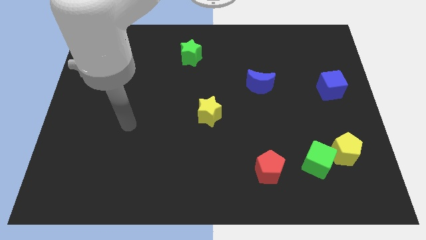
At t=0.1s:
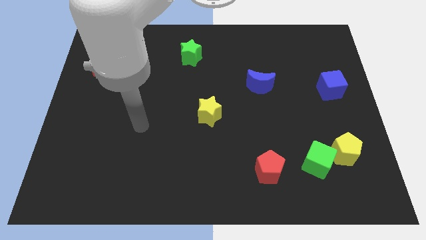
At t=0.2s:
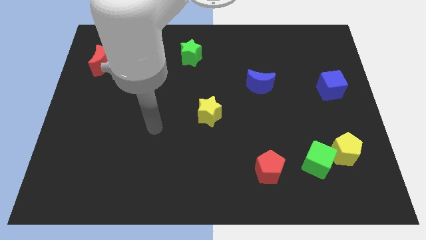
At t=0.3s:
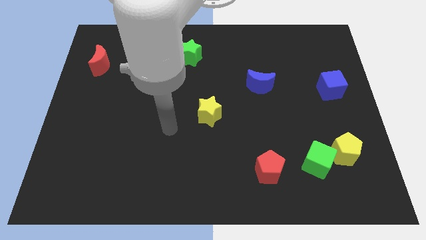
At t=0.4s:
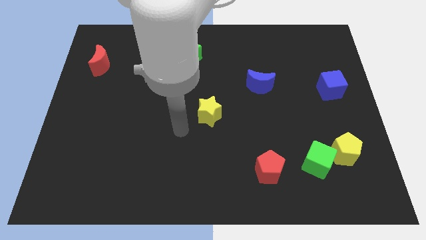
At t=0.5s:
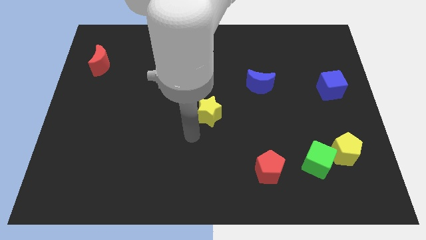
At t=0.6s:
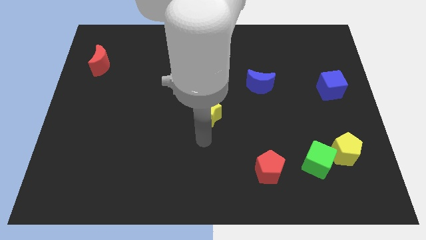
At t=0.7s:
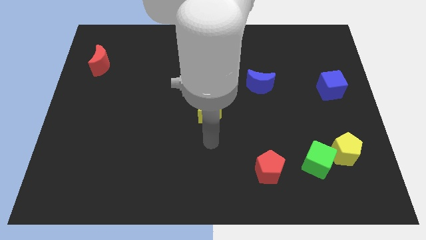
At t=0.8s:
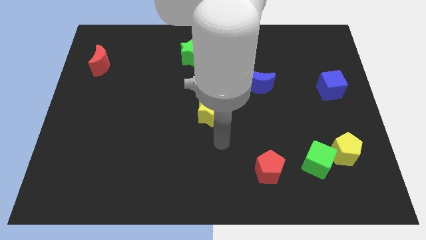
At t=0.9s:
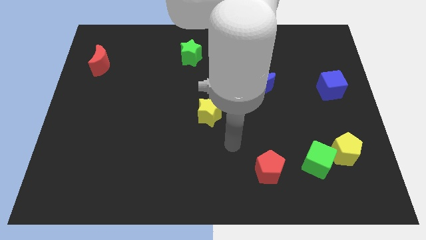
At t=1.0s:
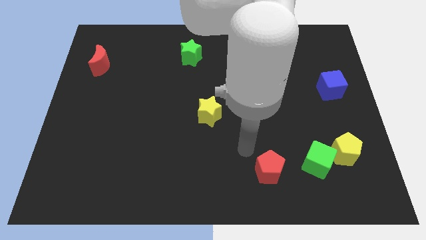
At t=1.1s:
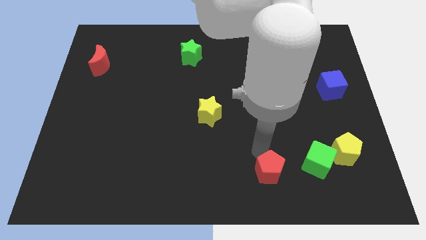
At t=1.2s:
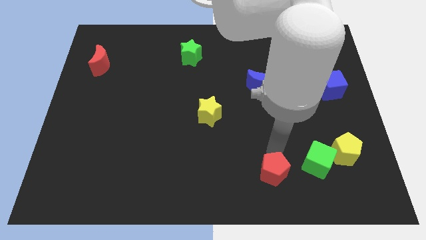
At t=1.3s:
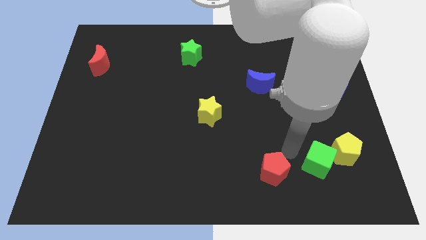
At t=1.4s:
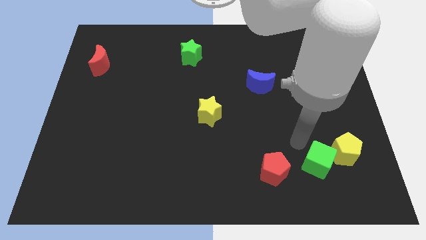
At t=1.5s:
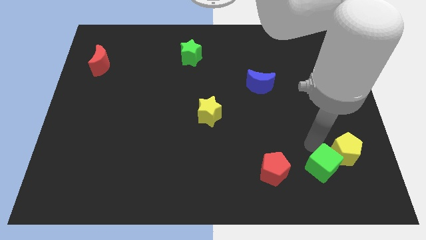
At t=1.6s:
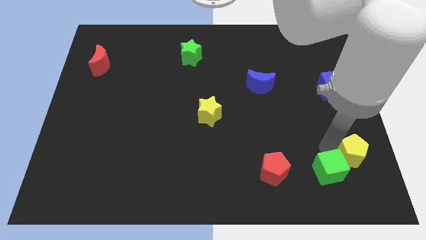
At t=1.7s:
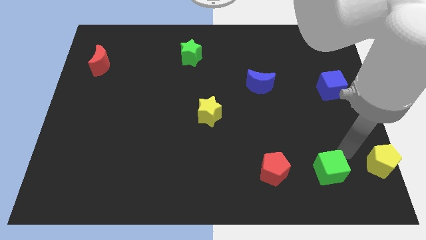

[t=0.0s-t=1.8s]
pull the green cube apart from the yellow pentagon

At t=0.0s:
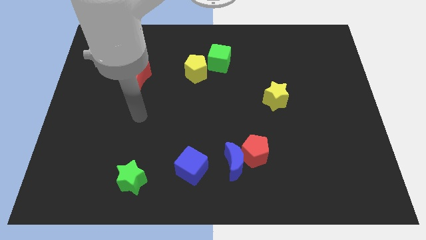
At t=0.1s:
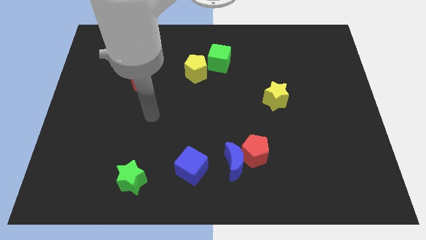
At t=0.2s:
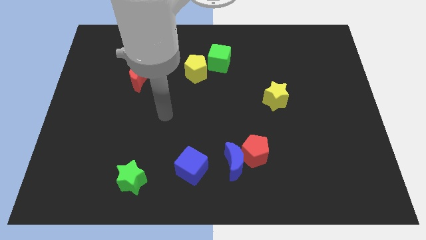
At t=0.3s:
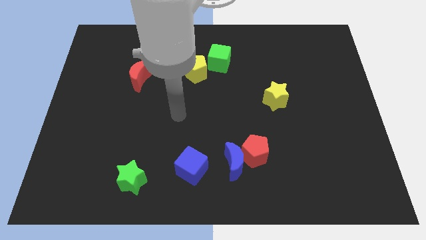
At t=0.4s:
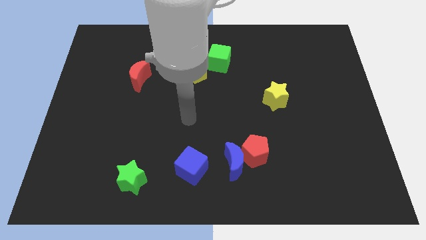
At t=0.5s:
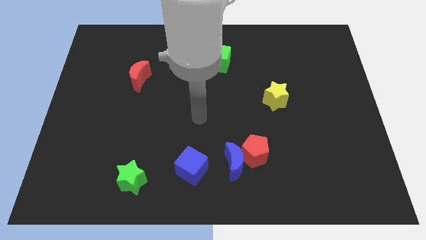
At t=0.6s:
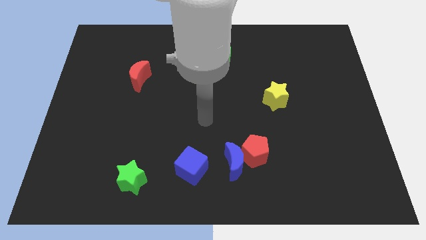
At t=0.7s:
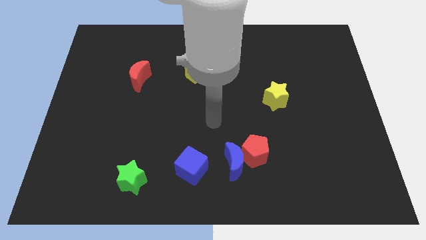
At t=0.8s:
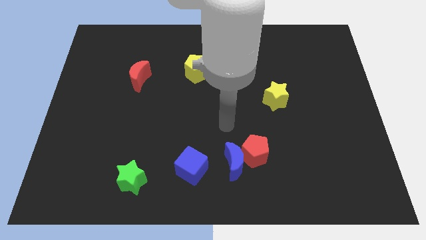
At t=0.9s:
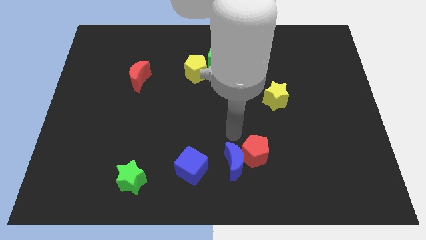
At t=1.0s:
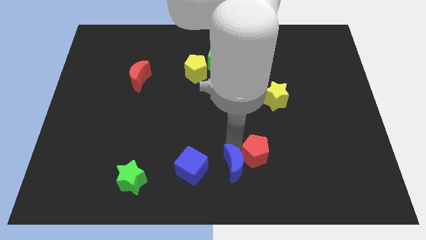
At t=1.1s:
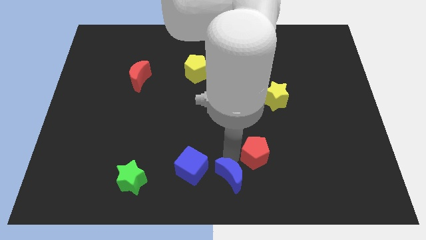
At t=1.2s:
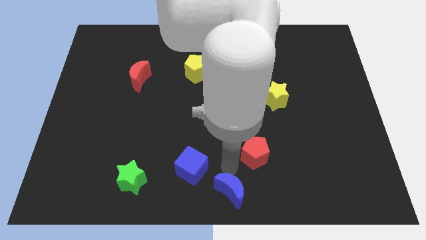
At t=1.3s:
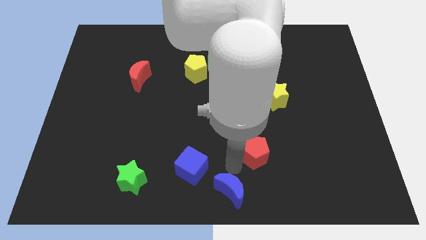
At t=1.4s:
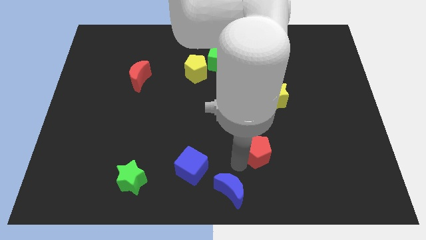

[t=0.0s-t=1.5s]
separate the red pentagon from the blue moon

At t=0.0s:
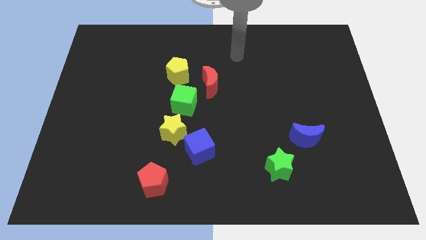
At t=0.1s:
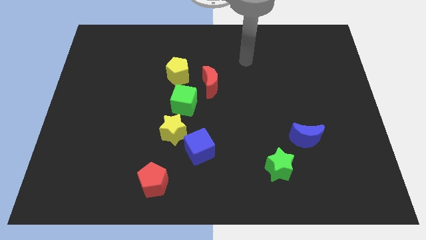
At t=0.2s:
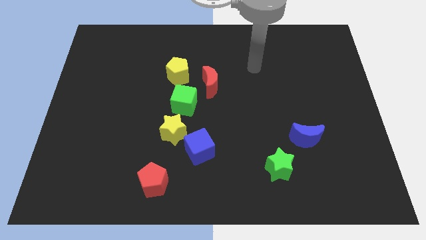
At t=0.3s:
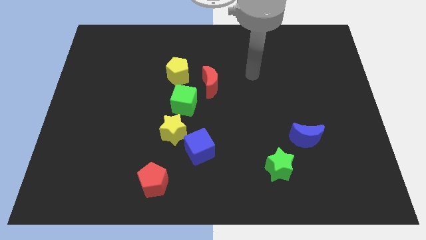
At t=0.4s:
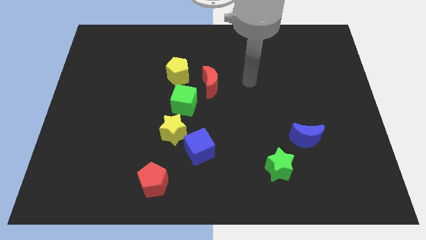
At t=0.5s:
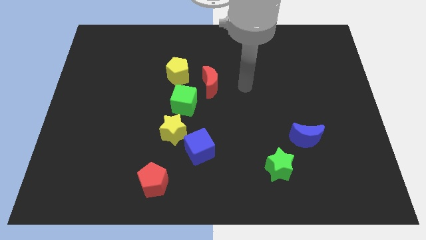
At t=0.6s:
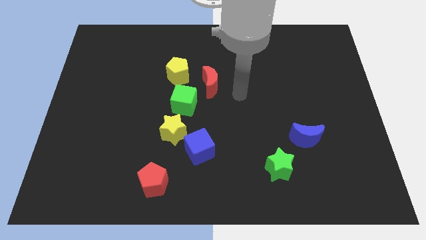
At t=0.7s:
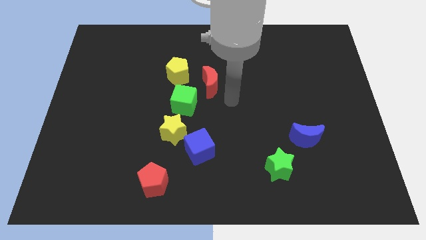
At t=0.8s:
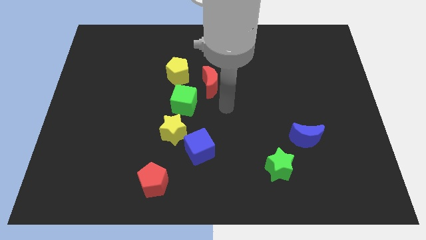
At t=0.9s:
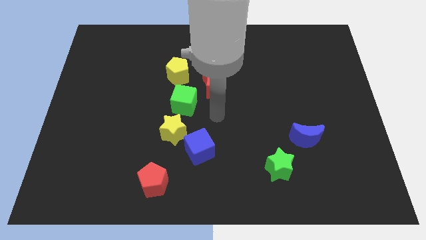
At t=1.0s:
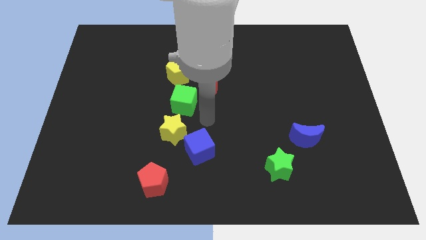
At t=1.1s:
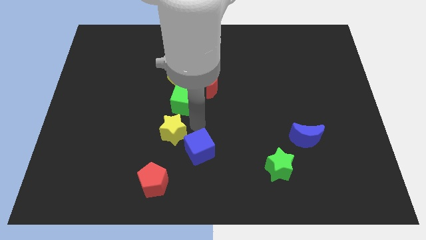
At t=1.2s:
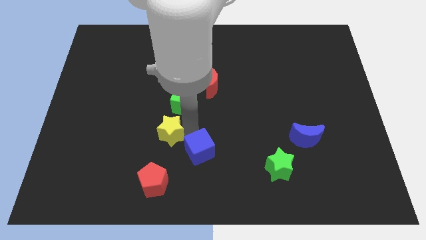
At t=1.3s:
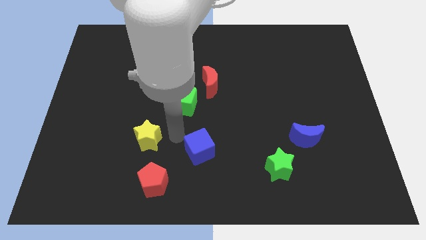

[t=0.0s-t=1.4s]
move the blue cube away from the yellow star

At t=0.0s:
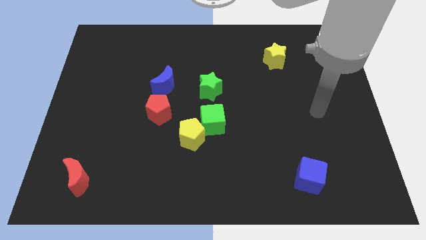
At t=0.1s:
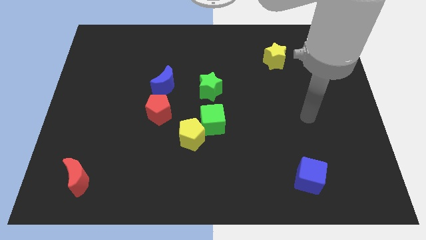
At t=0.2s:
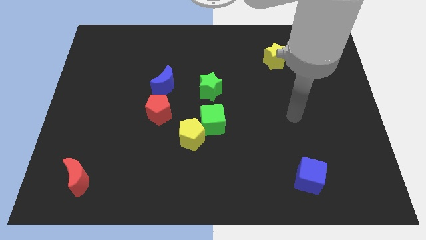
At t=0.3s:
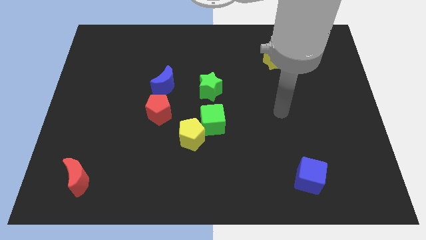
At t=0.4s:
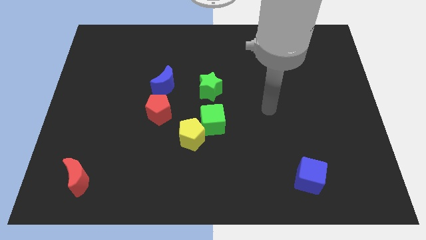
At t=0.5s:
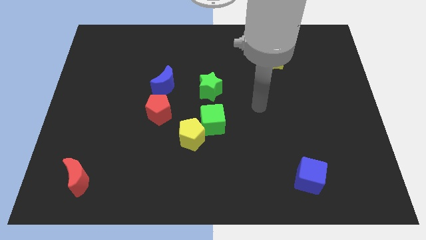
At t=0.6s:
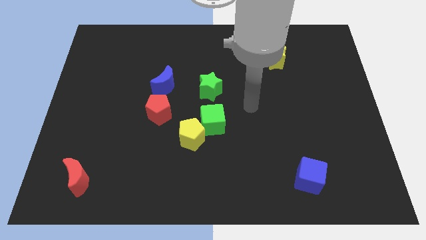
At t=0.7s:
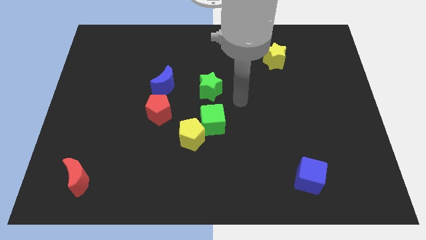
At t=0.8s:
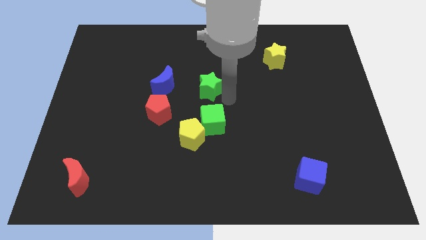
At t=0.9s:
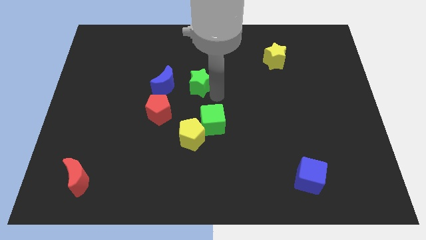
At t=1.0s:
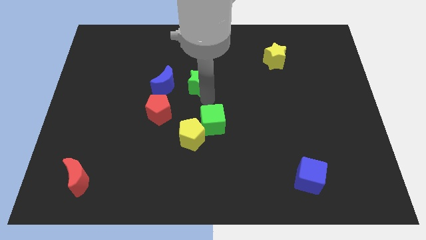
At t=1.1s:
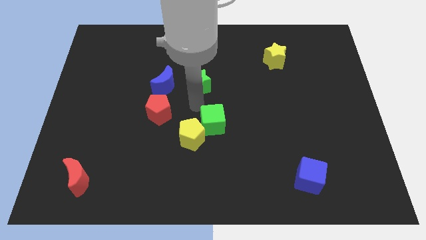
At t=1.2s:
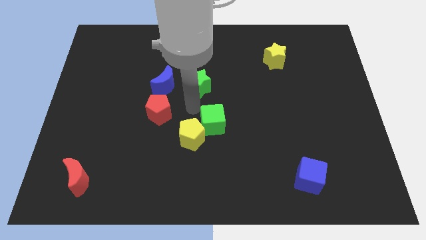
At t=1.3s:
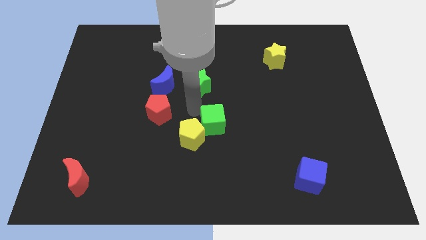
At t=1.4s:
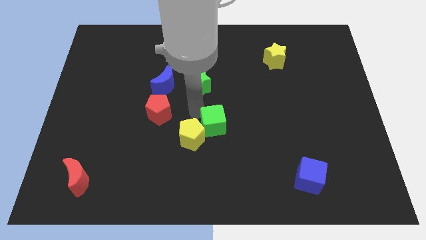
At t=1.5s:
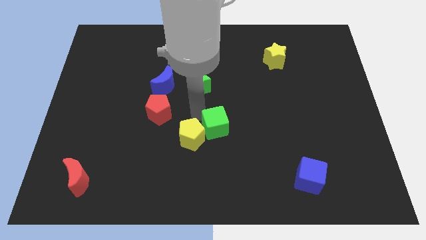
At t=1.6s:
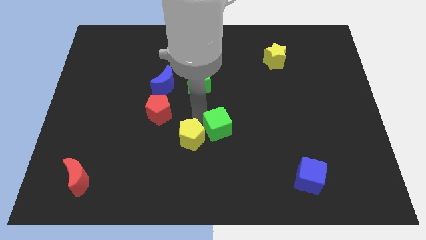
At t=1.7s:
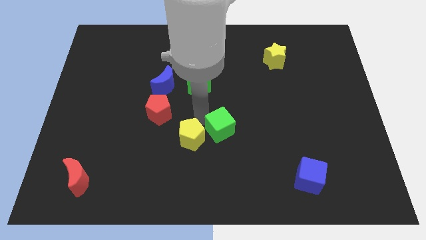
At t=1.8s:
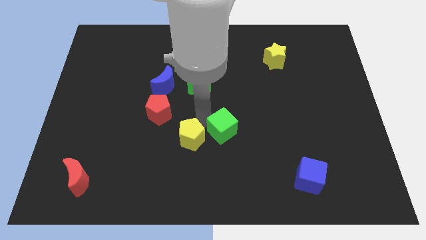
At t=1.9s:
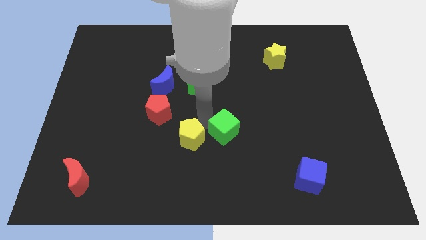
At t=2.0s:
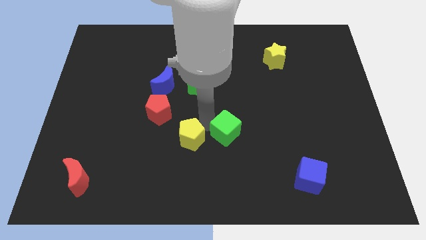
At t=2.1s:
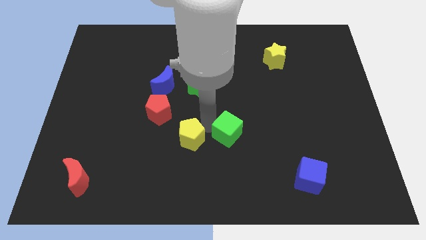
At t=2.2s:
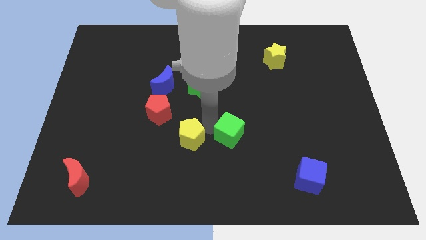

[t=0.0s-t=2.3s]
separate the green cube from the yellow pentagon and green star

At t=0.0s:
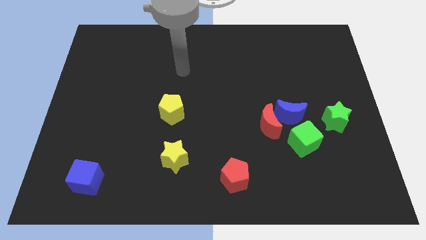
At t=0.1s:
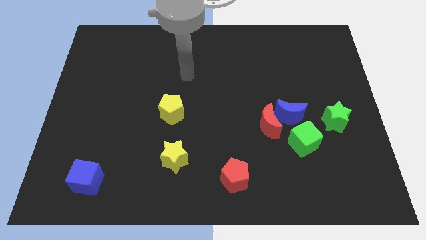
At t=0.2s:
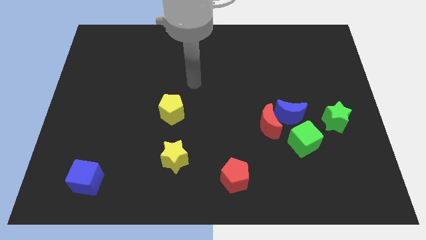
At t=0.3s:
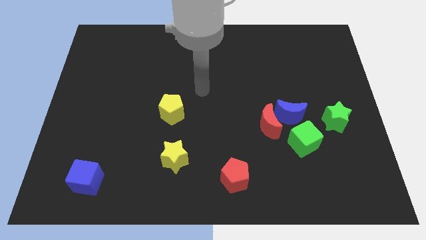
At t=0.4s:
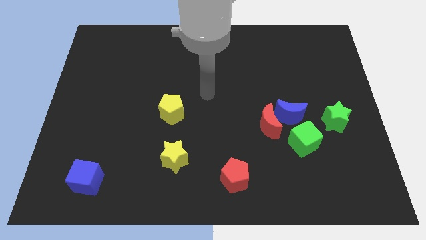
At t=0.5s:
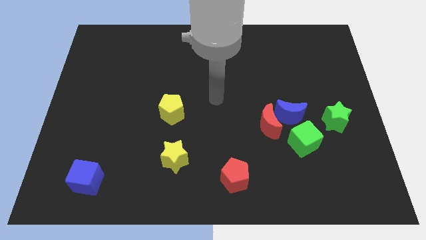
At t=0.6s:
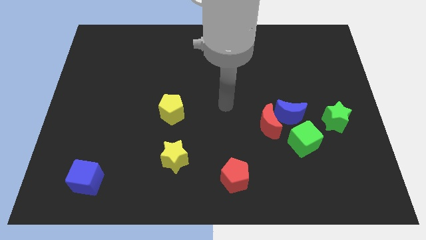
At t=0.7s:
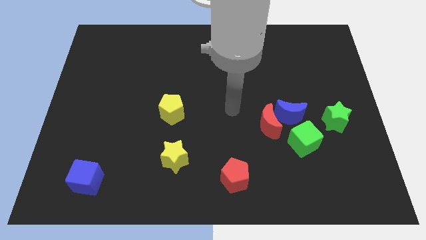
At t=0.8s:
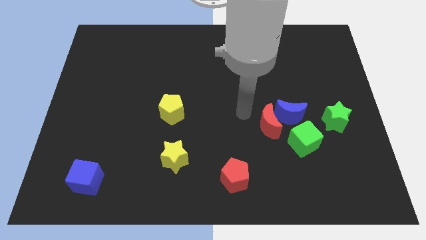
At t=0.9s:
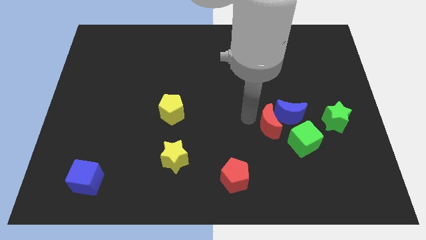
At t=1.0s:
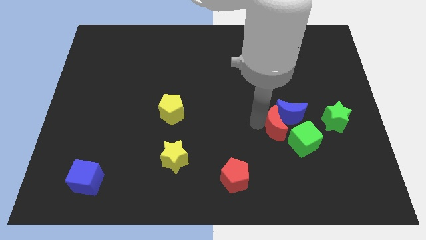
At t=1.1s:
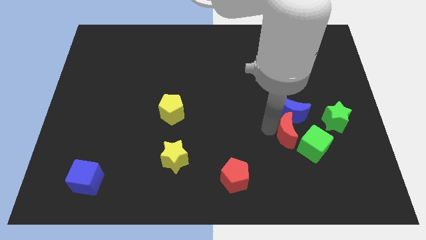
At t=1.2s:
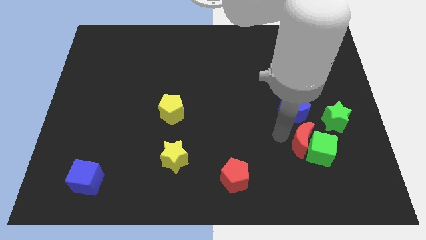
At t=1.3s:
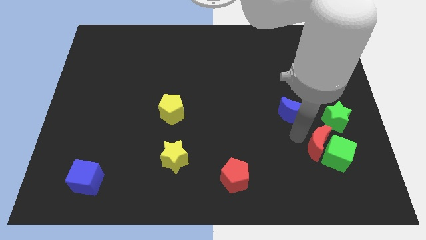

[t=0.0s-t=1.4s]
separate the blue moon from the red moon and green cube

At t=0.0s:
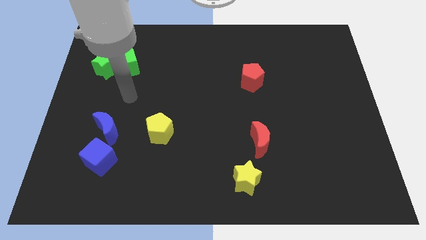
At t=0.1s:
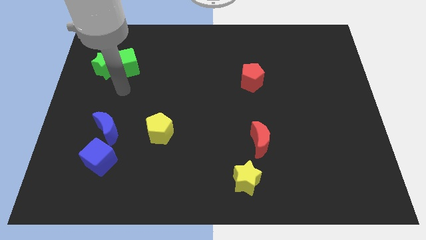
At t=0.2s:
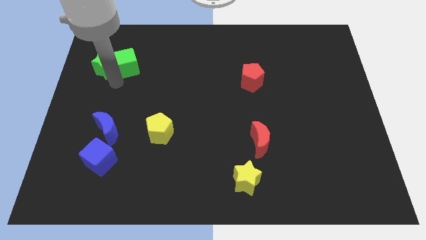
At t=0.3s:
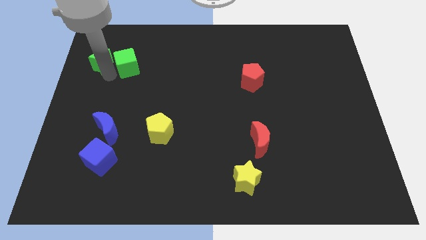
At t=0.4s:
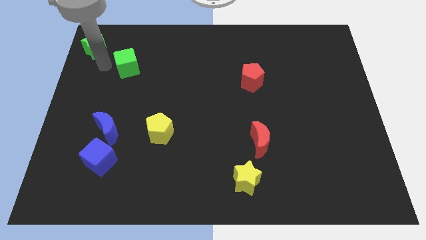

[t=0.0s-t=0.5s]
separate the green cube from the green star

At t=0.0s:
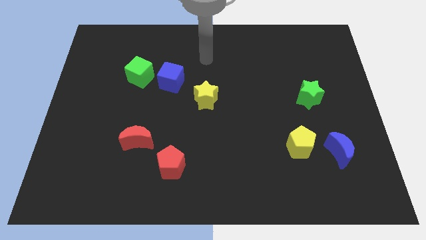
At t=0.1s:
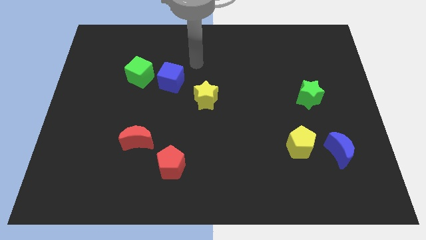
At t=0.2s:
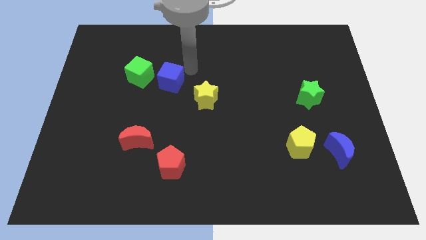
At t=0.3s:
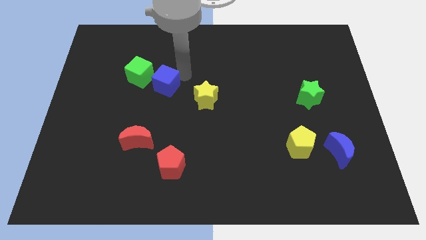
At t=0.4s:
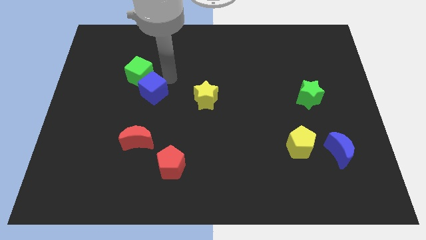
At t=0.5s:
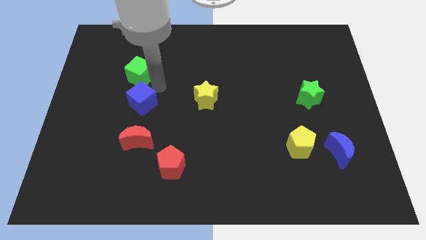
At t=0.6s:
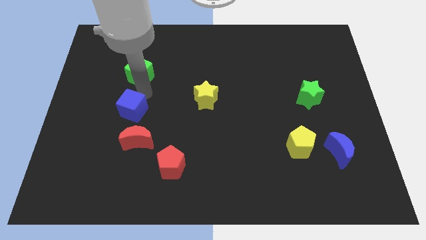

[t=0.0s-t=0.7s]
move the green cube away from the blue cube
